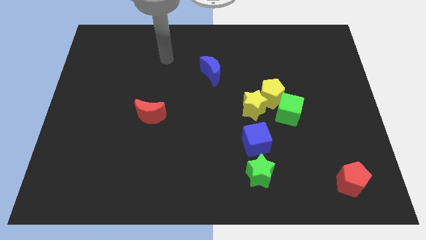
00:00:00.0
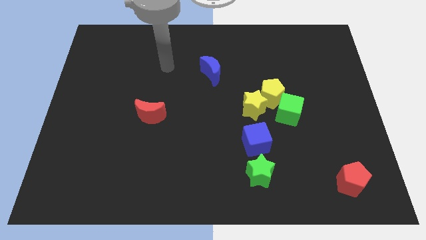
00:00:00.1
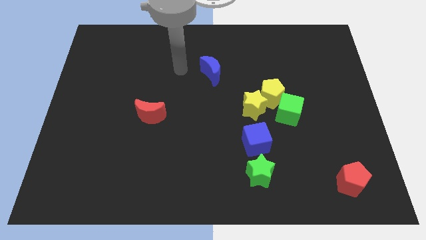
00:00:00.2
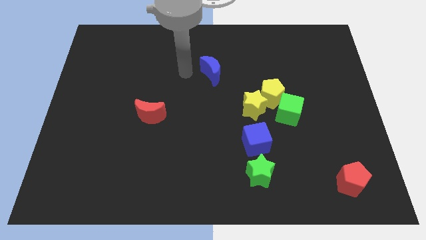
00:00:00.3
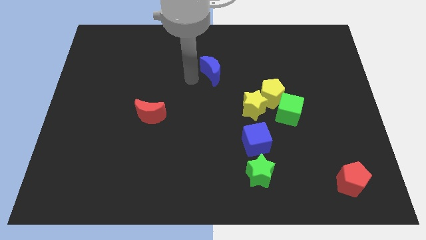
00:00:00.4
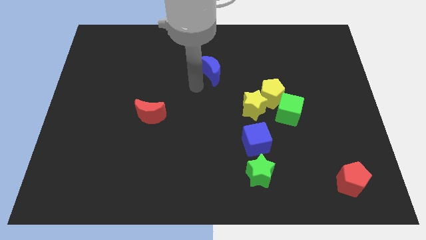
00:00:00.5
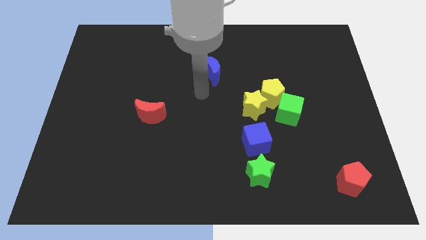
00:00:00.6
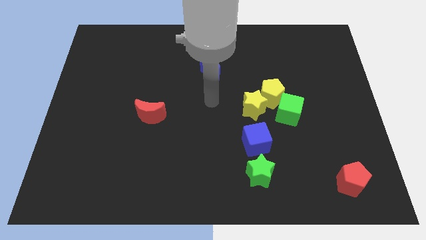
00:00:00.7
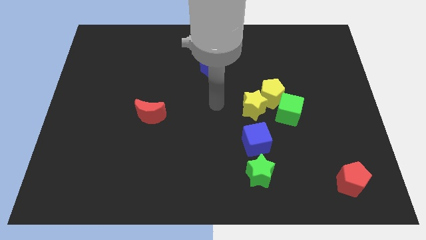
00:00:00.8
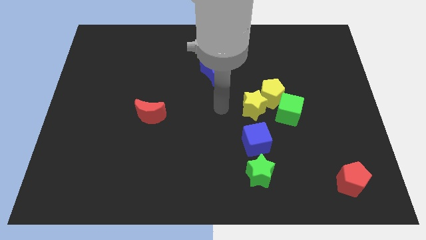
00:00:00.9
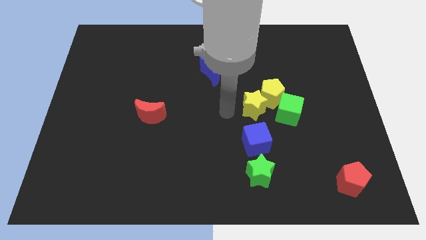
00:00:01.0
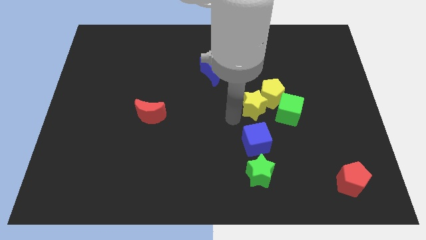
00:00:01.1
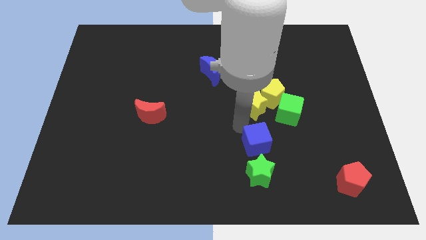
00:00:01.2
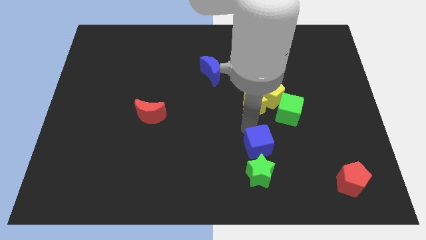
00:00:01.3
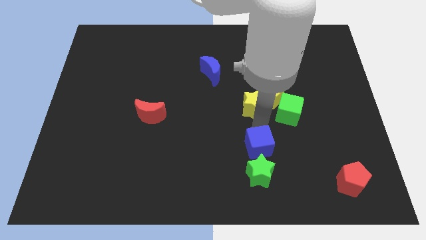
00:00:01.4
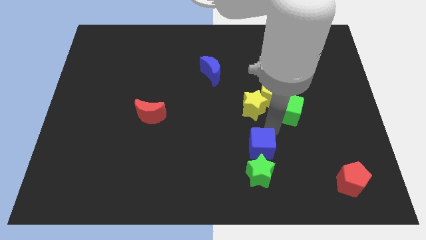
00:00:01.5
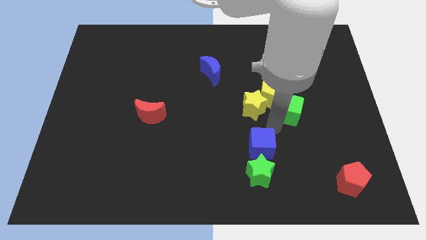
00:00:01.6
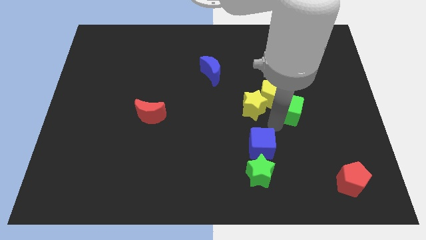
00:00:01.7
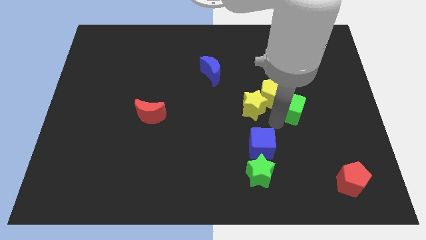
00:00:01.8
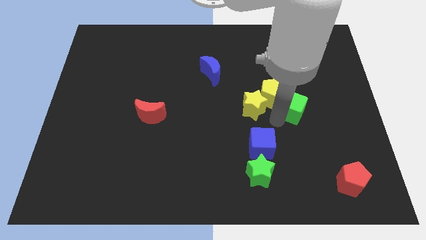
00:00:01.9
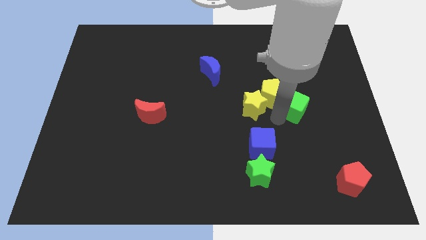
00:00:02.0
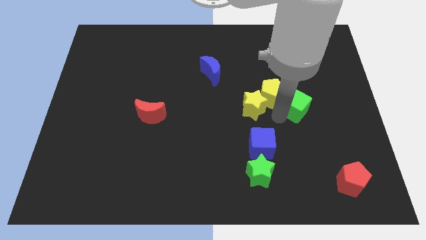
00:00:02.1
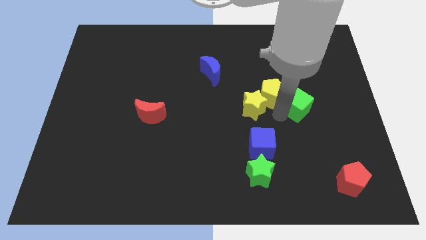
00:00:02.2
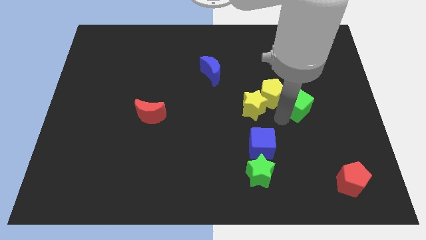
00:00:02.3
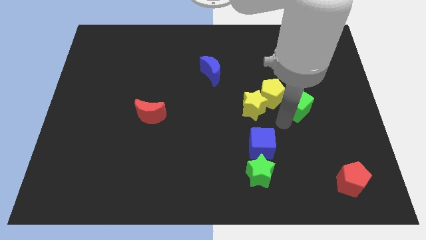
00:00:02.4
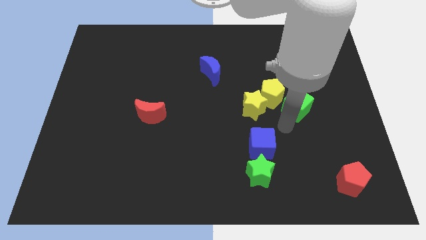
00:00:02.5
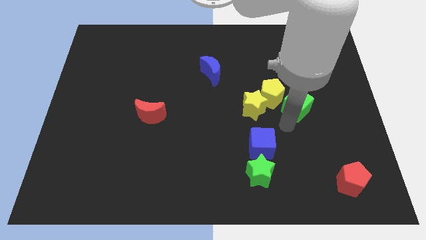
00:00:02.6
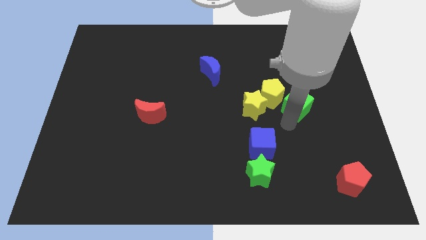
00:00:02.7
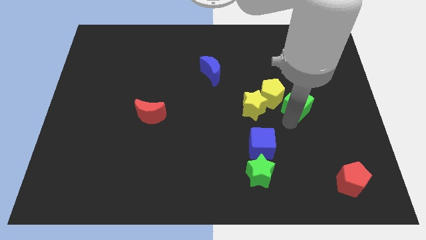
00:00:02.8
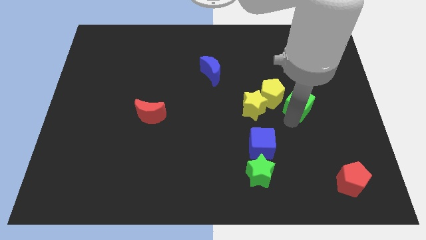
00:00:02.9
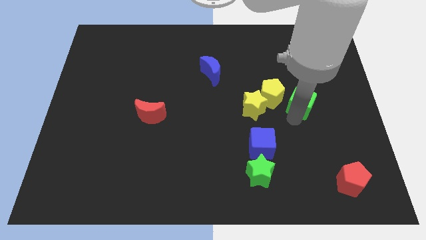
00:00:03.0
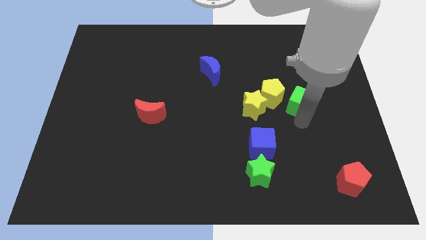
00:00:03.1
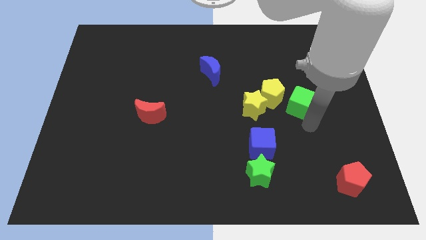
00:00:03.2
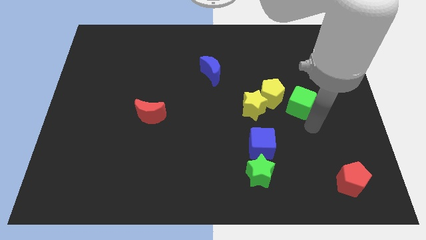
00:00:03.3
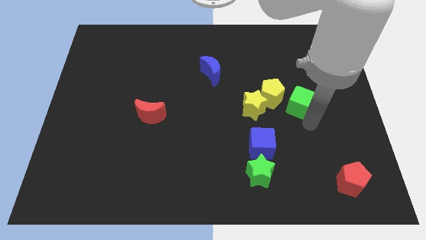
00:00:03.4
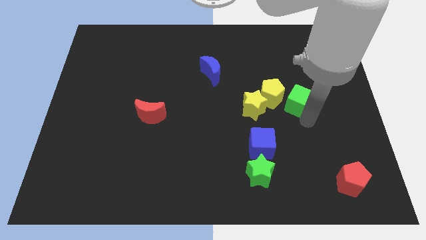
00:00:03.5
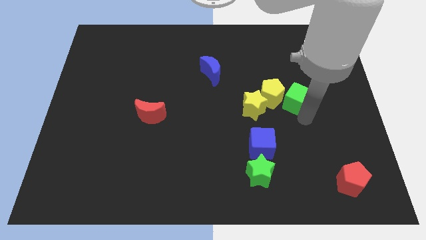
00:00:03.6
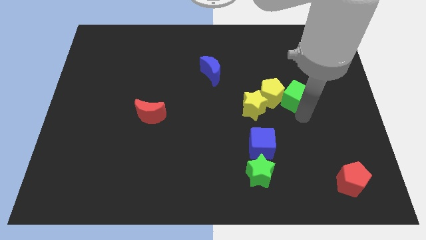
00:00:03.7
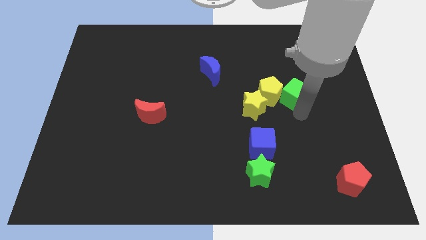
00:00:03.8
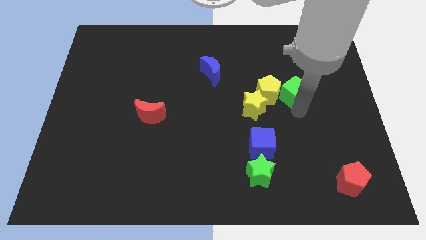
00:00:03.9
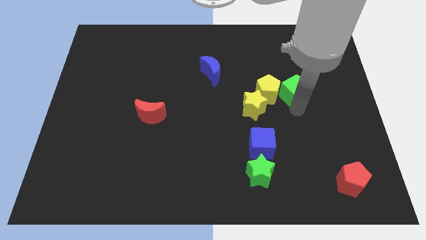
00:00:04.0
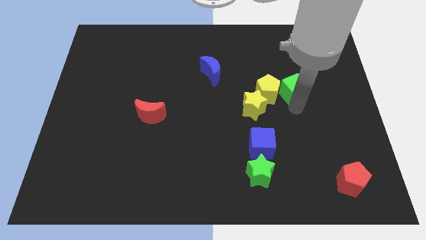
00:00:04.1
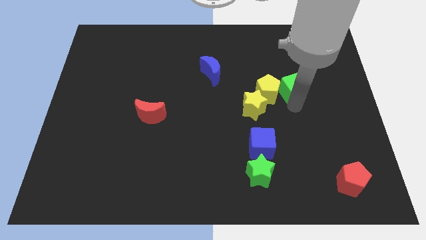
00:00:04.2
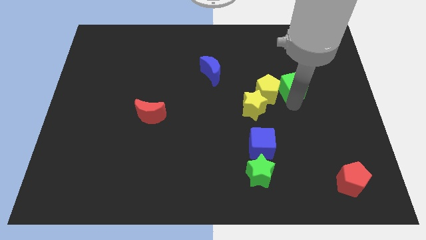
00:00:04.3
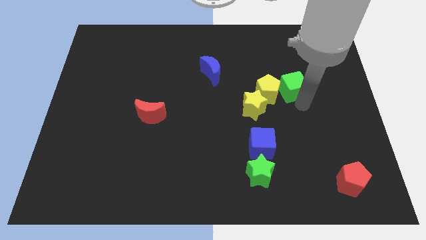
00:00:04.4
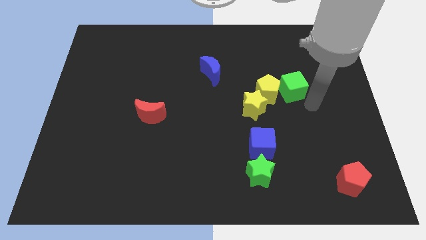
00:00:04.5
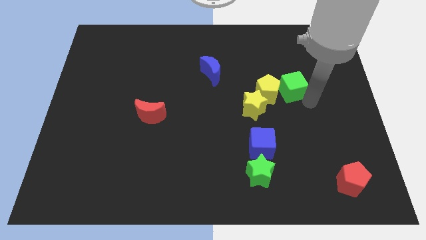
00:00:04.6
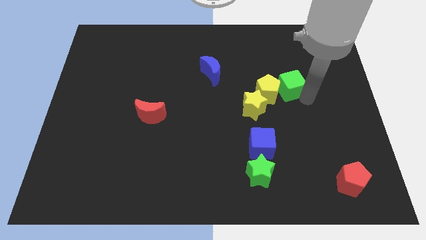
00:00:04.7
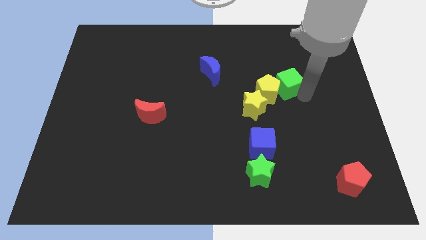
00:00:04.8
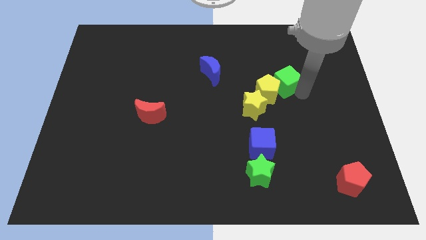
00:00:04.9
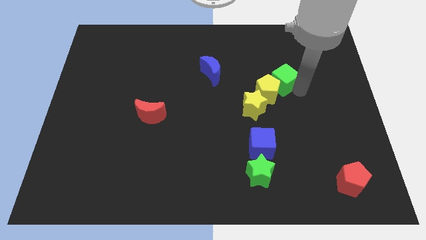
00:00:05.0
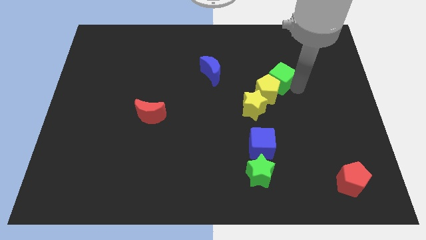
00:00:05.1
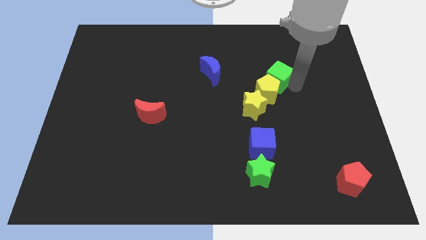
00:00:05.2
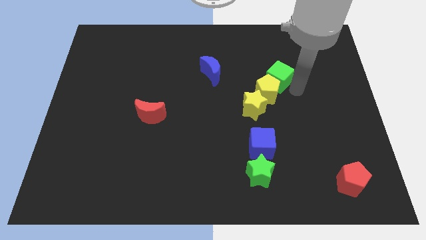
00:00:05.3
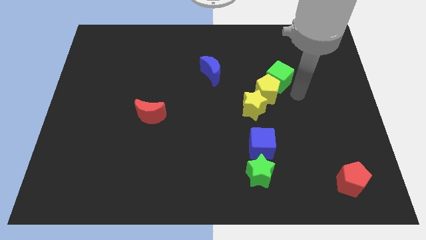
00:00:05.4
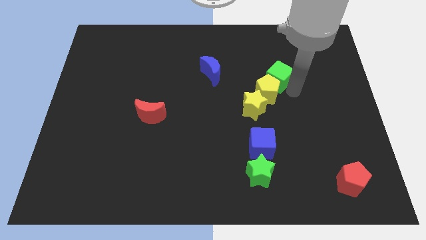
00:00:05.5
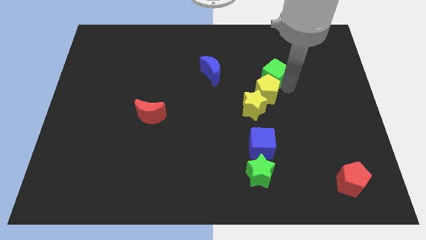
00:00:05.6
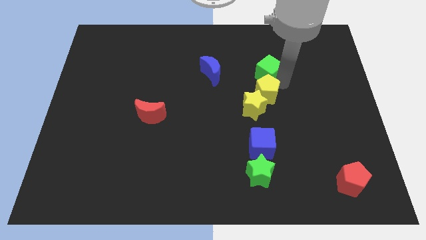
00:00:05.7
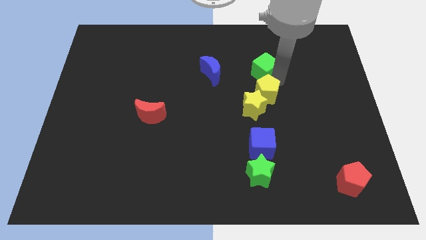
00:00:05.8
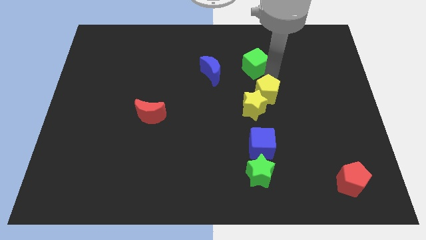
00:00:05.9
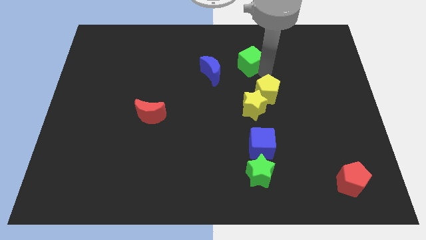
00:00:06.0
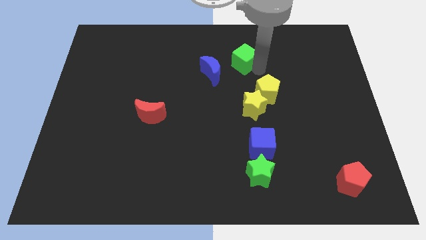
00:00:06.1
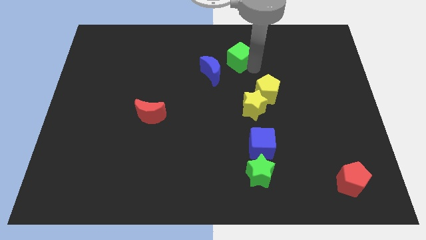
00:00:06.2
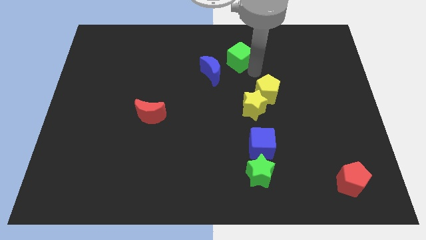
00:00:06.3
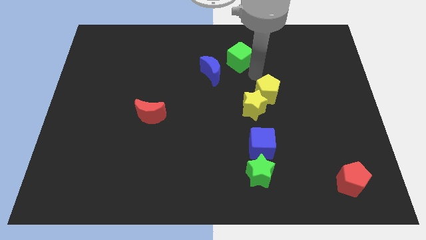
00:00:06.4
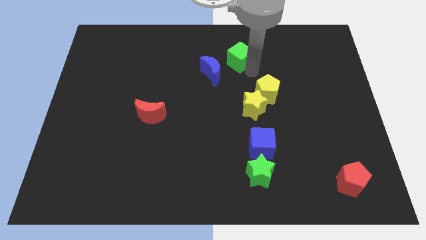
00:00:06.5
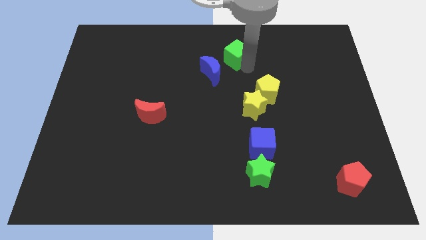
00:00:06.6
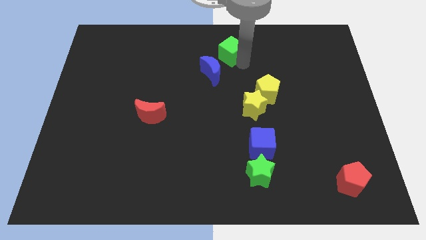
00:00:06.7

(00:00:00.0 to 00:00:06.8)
push the green cube to the towards your base
